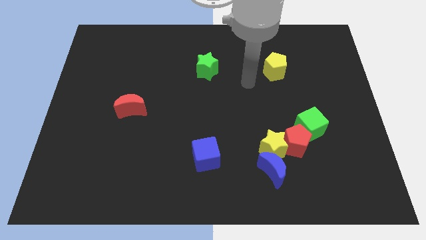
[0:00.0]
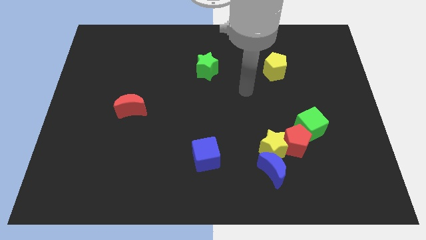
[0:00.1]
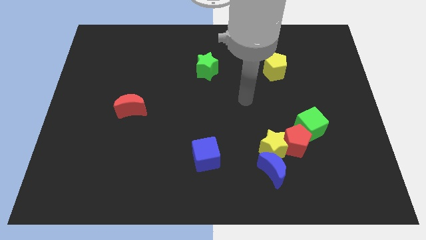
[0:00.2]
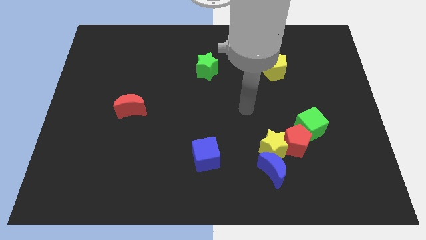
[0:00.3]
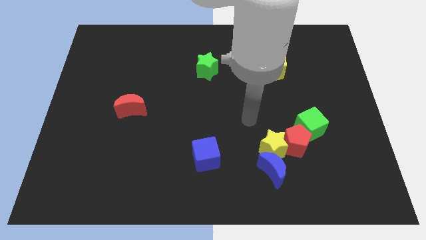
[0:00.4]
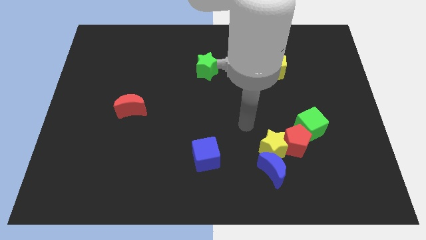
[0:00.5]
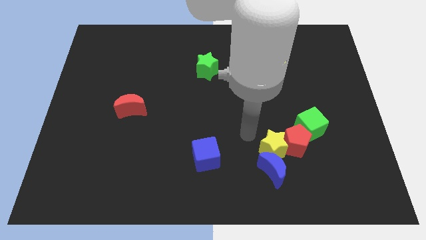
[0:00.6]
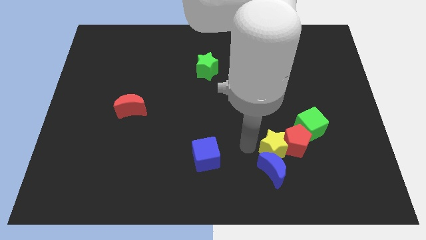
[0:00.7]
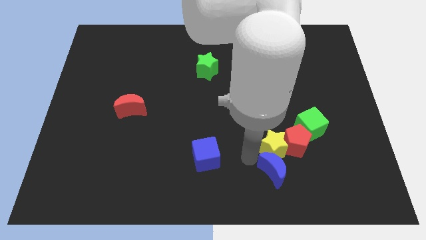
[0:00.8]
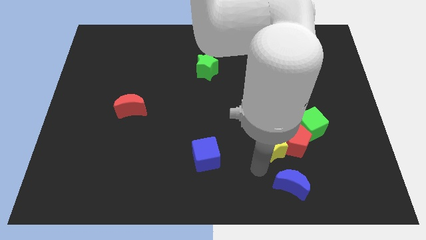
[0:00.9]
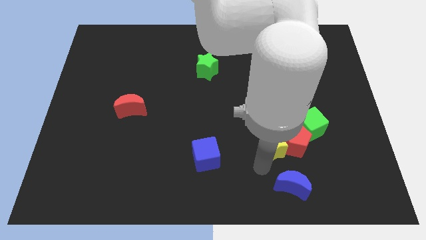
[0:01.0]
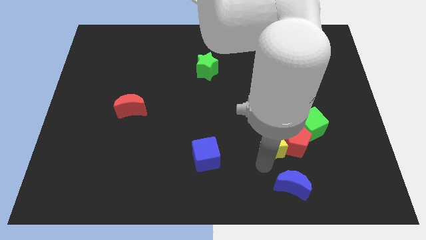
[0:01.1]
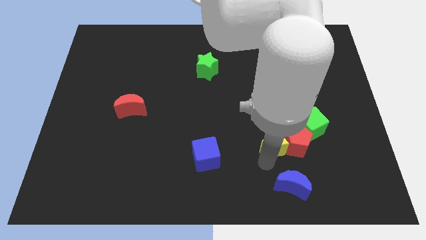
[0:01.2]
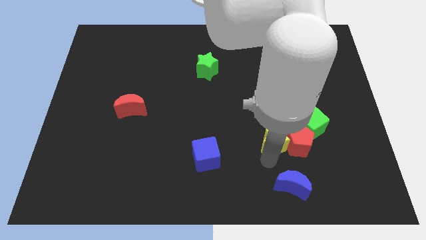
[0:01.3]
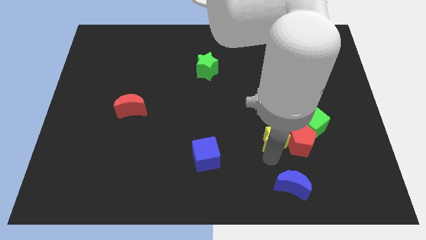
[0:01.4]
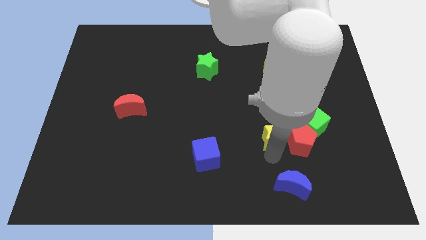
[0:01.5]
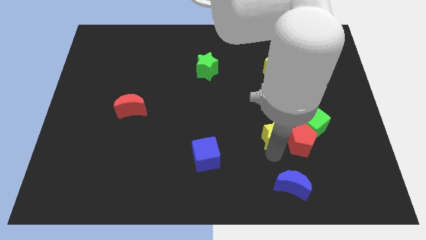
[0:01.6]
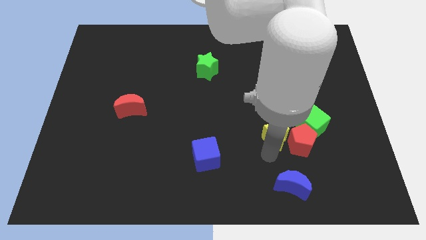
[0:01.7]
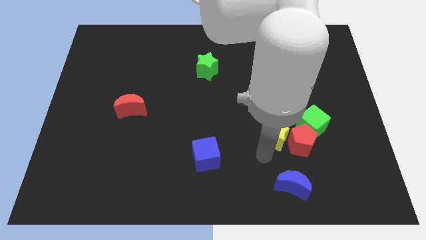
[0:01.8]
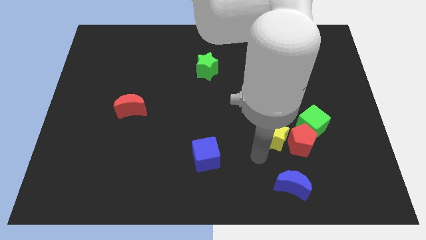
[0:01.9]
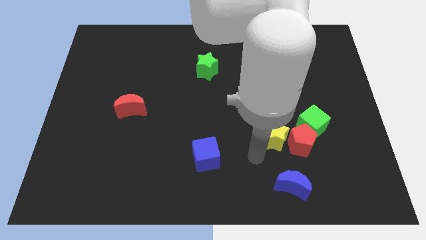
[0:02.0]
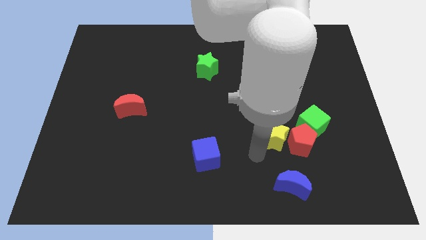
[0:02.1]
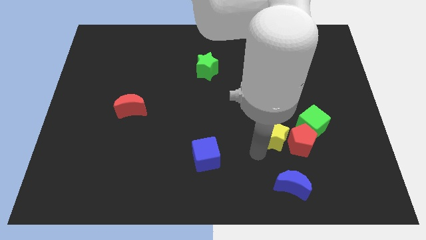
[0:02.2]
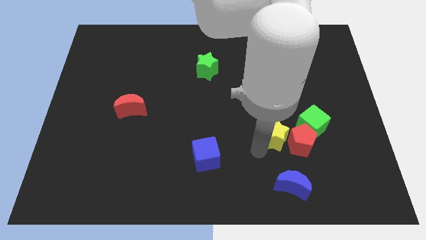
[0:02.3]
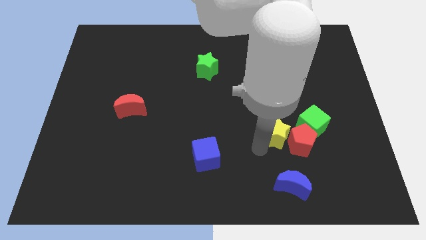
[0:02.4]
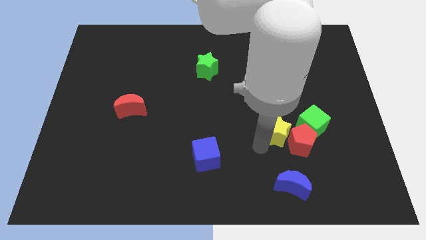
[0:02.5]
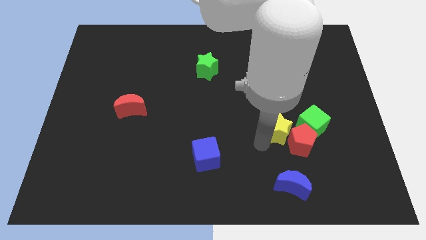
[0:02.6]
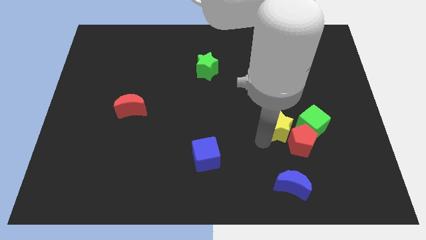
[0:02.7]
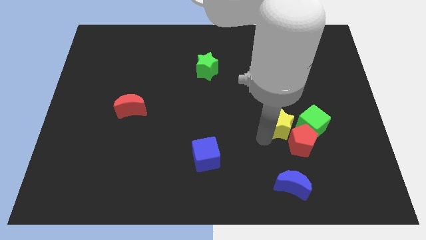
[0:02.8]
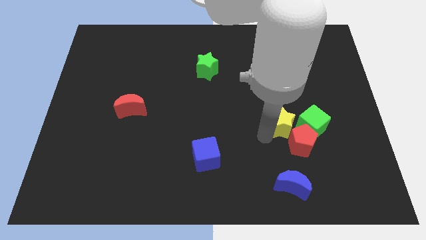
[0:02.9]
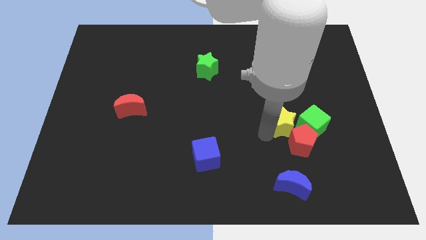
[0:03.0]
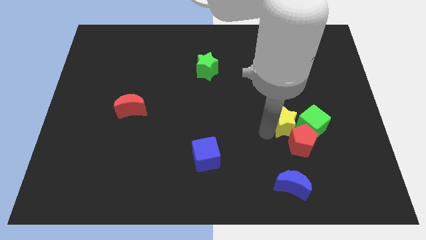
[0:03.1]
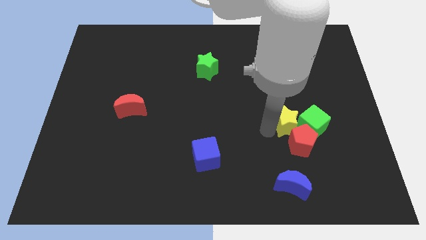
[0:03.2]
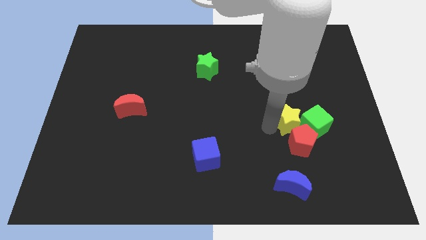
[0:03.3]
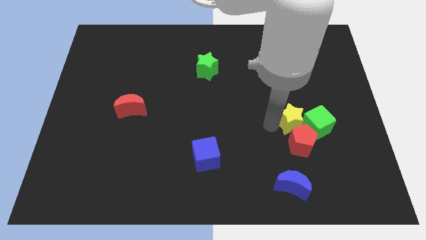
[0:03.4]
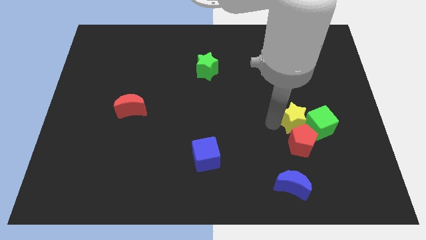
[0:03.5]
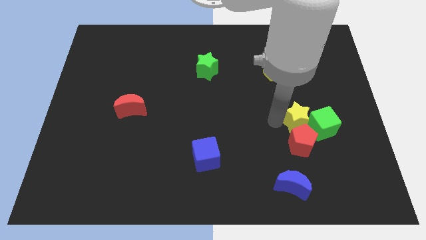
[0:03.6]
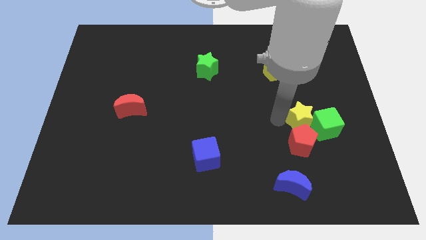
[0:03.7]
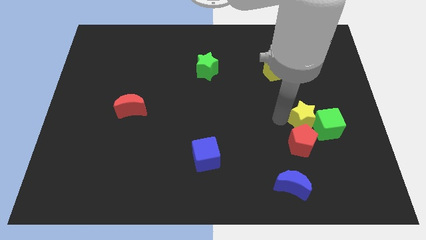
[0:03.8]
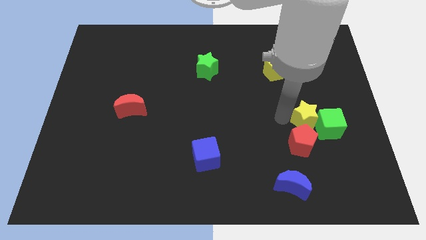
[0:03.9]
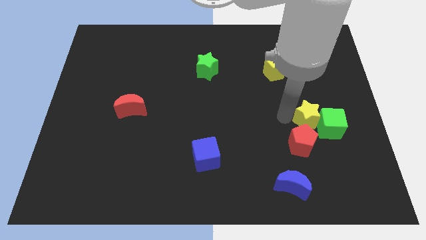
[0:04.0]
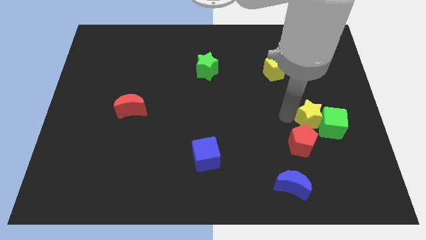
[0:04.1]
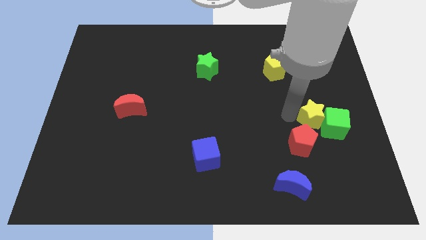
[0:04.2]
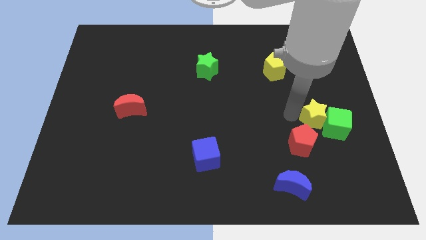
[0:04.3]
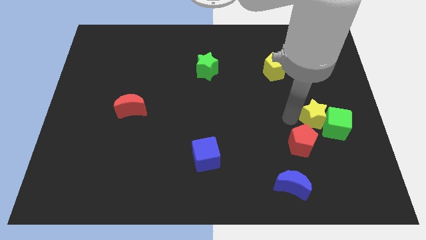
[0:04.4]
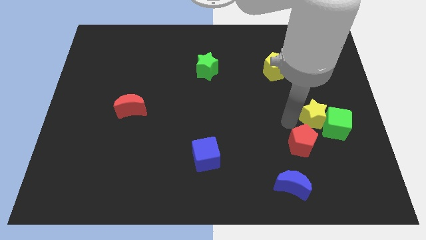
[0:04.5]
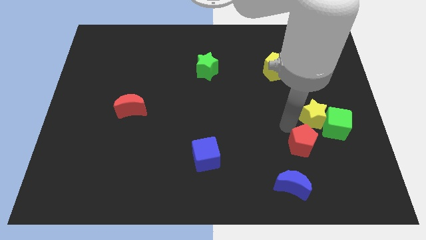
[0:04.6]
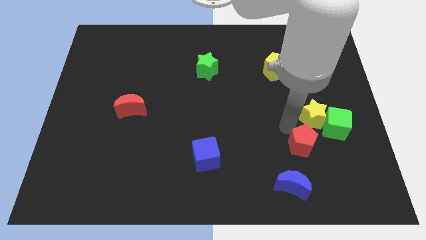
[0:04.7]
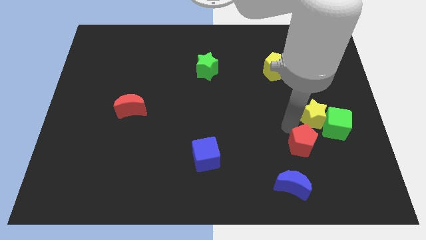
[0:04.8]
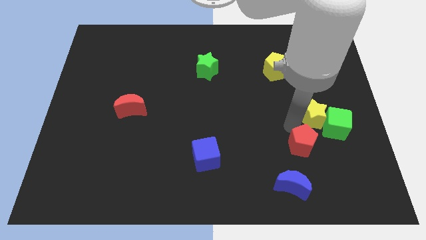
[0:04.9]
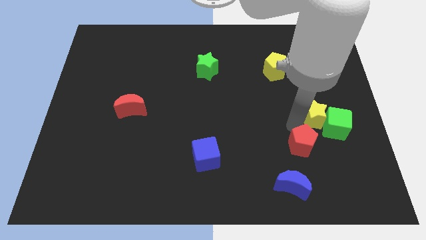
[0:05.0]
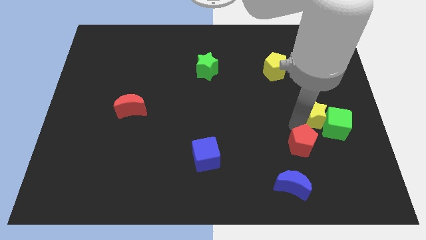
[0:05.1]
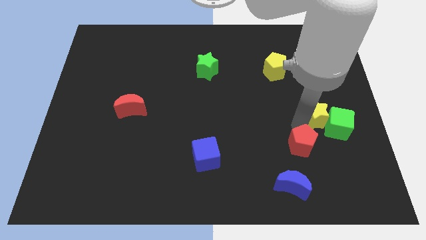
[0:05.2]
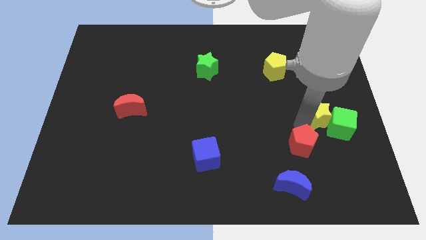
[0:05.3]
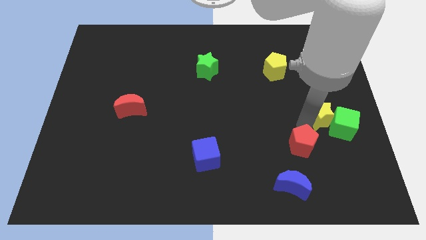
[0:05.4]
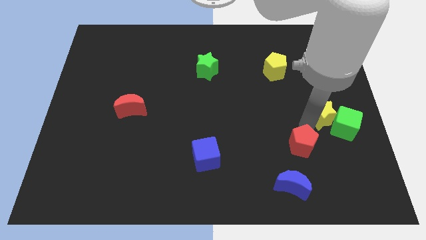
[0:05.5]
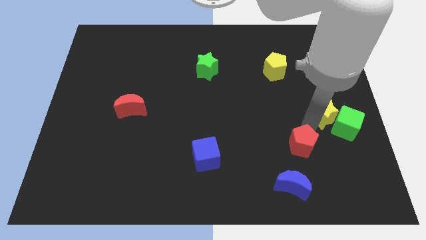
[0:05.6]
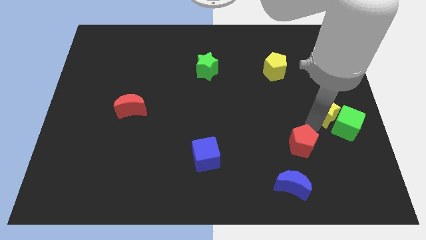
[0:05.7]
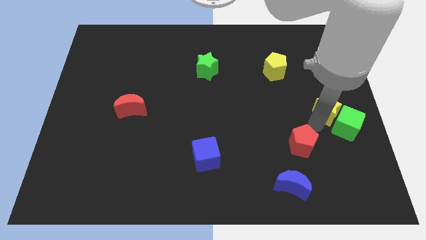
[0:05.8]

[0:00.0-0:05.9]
put the yellow star to the right side of the board

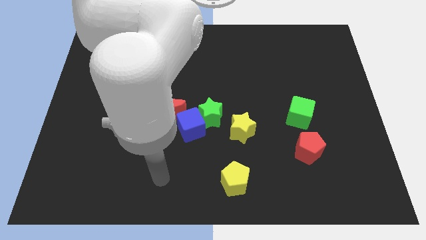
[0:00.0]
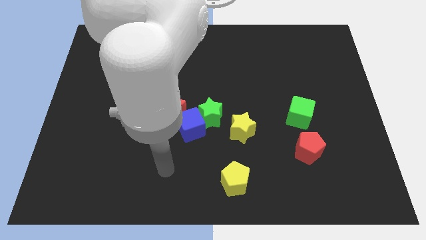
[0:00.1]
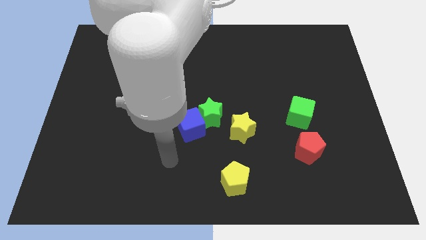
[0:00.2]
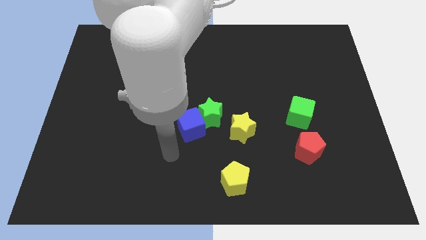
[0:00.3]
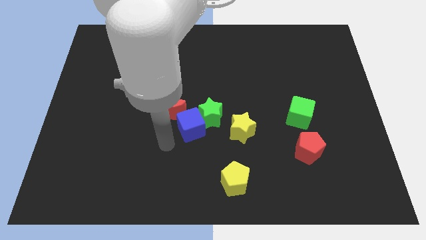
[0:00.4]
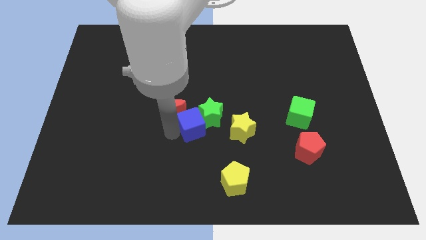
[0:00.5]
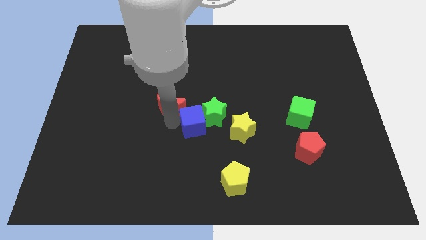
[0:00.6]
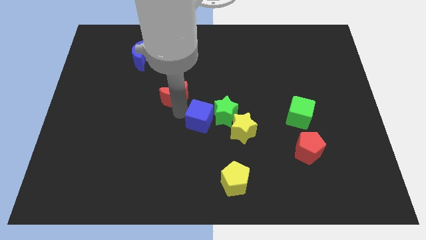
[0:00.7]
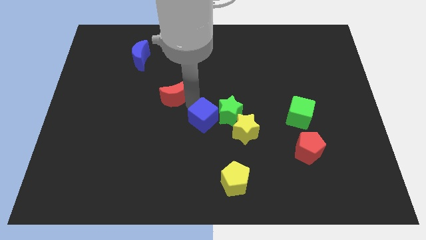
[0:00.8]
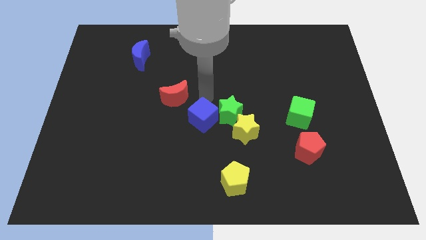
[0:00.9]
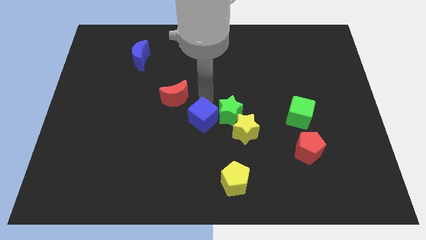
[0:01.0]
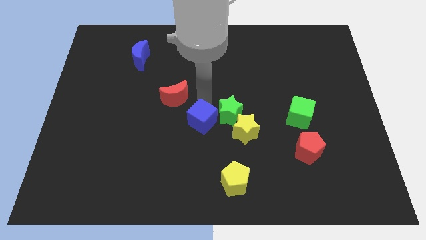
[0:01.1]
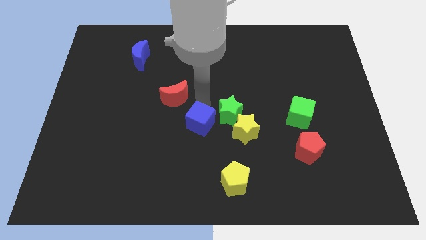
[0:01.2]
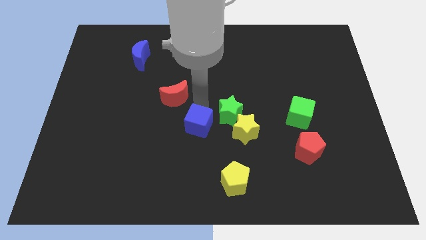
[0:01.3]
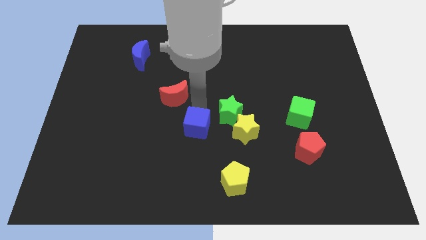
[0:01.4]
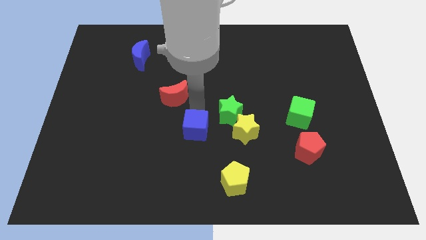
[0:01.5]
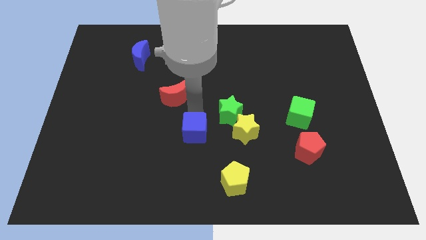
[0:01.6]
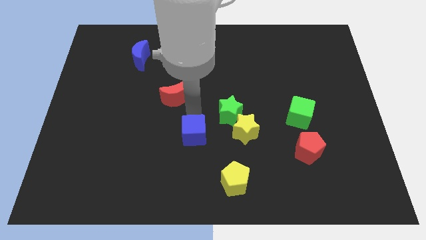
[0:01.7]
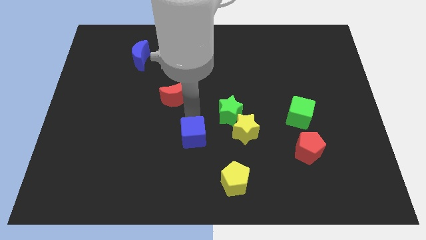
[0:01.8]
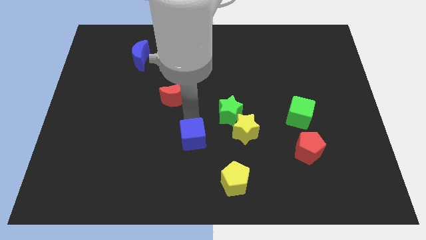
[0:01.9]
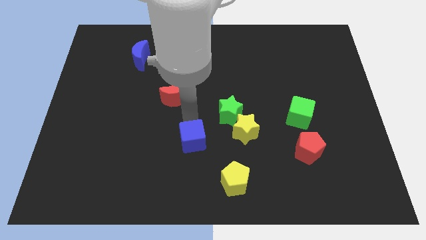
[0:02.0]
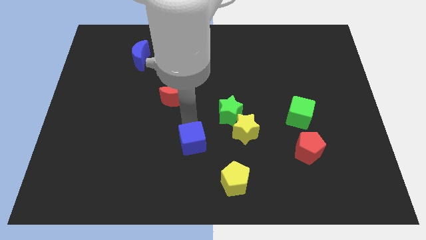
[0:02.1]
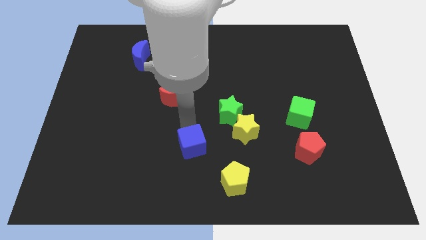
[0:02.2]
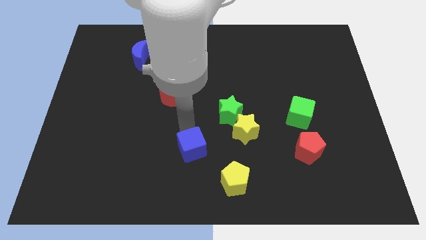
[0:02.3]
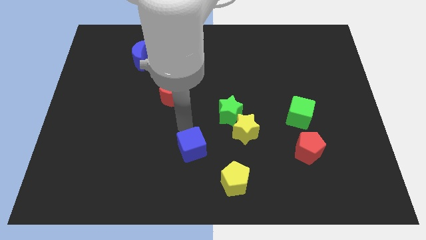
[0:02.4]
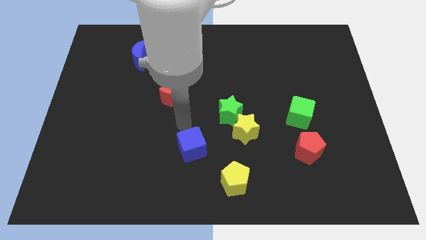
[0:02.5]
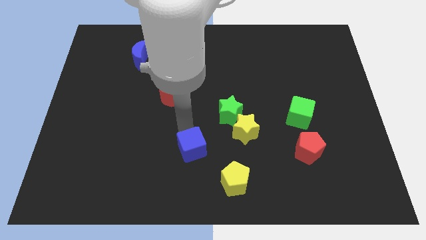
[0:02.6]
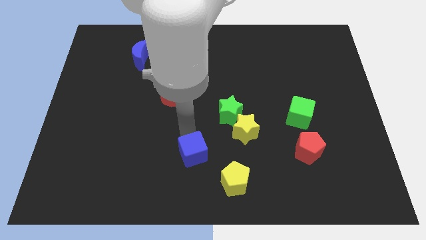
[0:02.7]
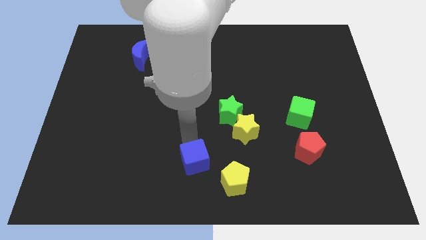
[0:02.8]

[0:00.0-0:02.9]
slide the blue cube to the bottom
